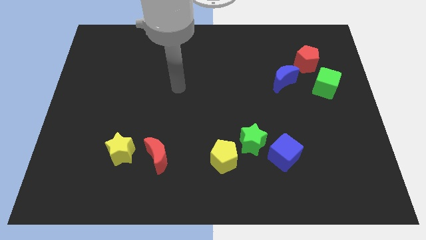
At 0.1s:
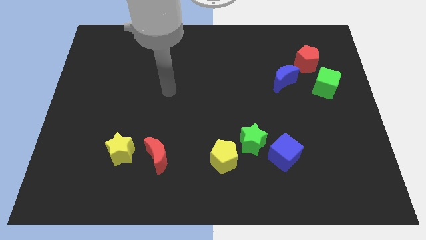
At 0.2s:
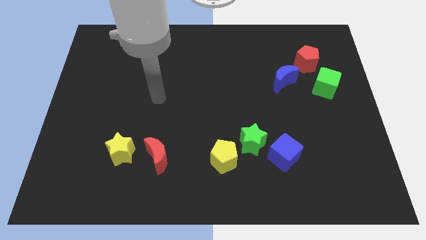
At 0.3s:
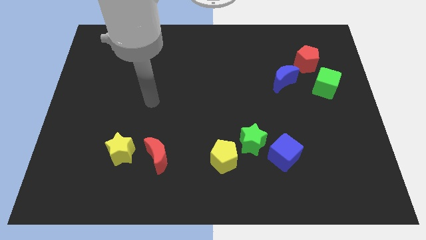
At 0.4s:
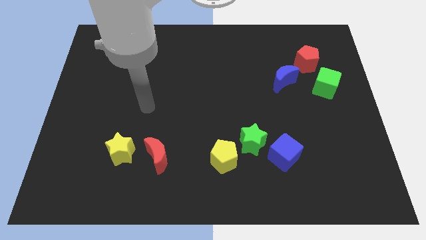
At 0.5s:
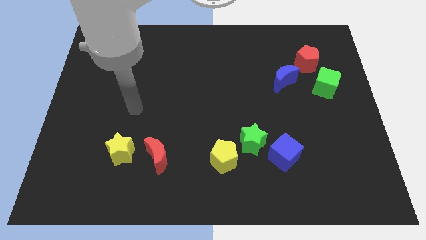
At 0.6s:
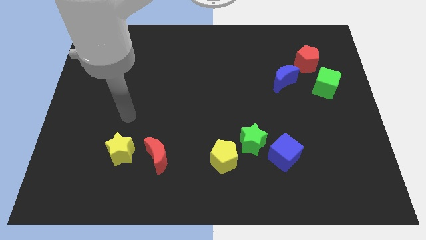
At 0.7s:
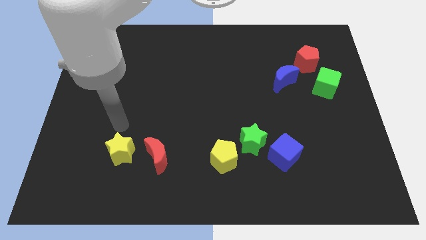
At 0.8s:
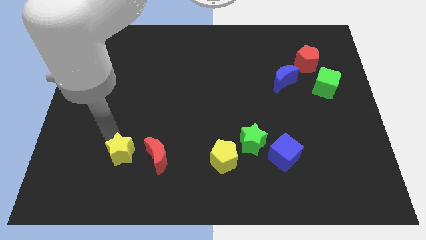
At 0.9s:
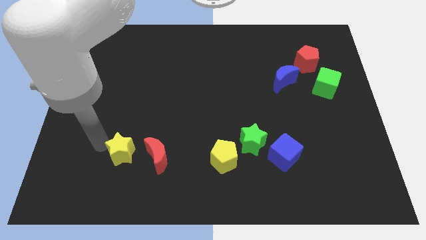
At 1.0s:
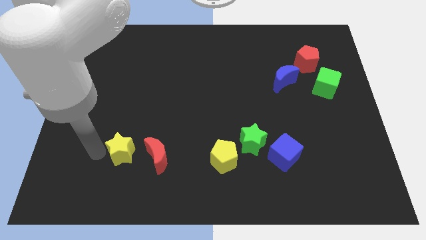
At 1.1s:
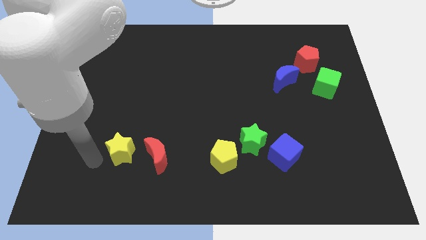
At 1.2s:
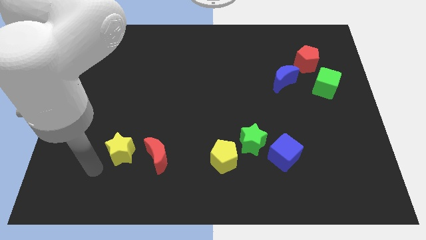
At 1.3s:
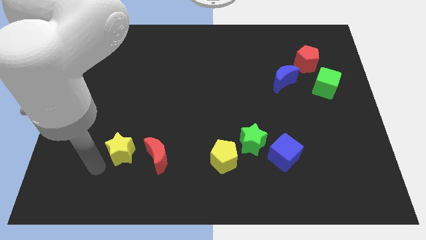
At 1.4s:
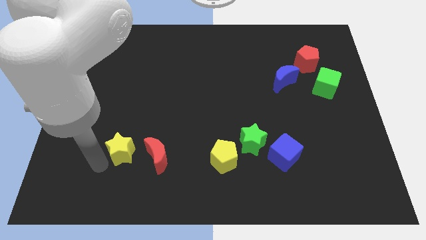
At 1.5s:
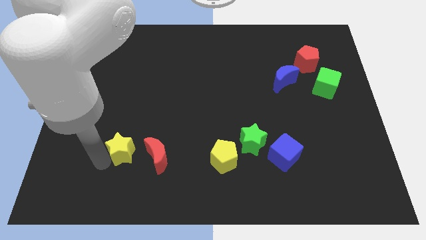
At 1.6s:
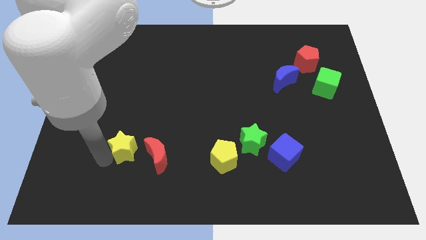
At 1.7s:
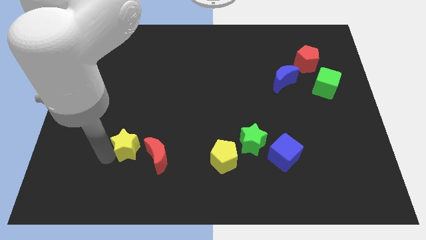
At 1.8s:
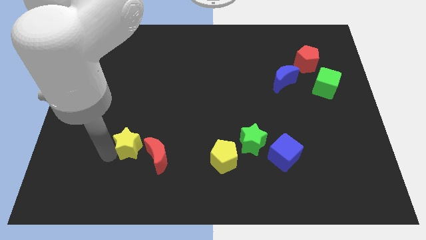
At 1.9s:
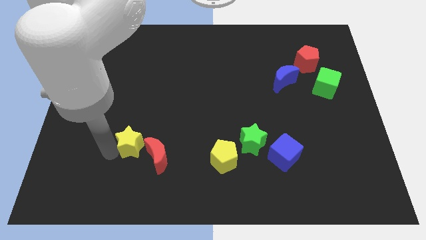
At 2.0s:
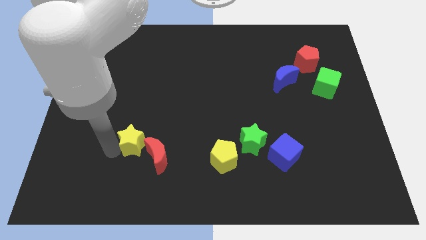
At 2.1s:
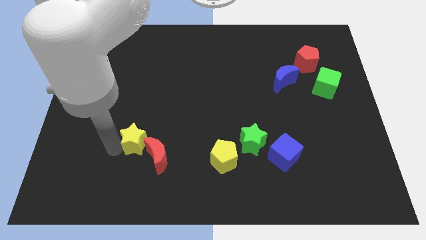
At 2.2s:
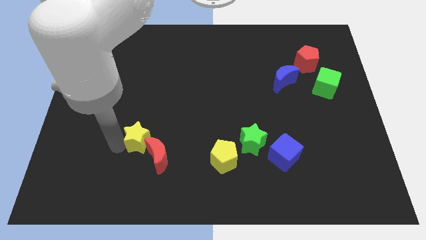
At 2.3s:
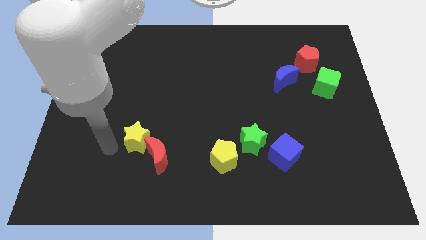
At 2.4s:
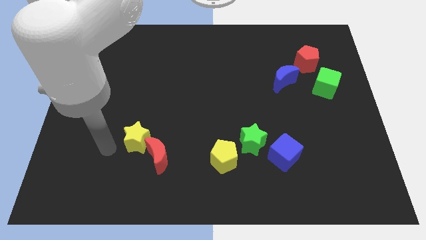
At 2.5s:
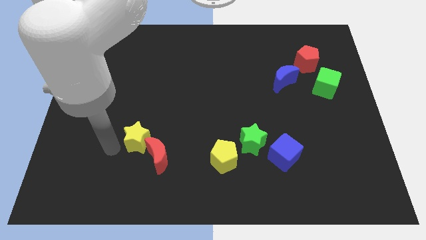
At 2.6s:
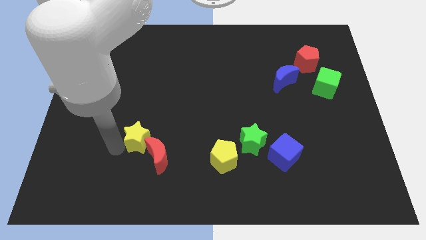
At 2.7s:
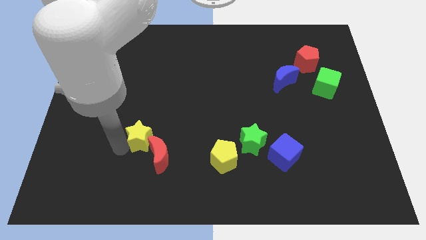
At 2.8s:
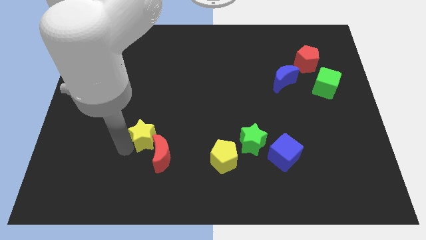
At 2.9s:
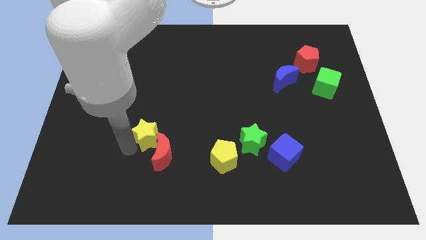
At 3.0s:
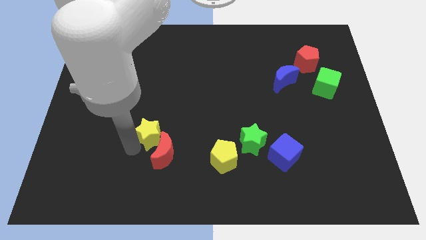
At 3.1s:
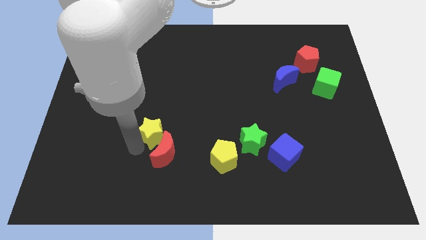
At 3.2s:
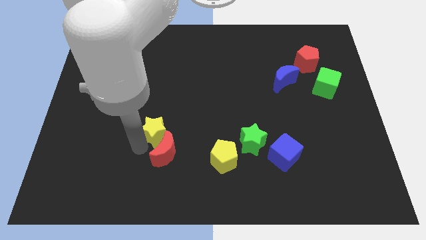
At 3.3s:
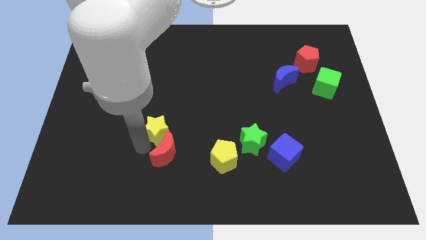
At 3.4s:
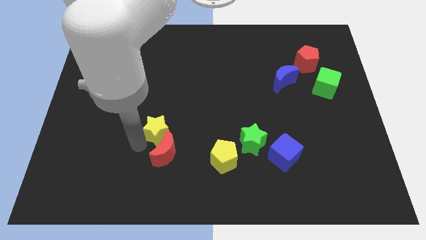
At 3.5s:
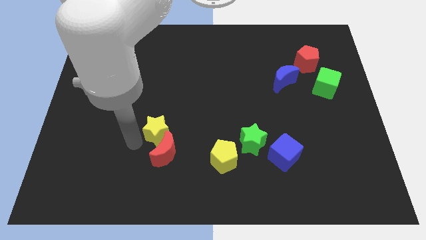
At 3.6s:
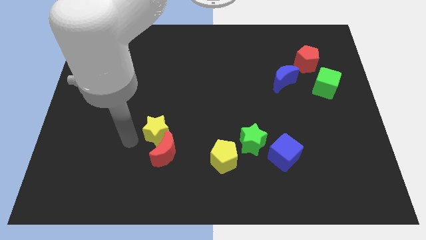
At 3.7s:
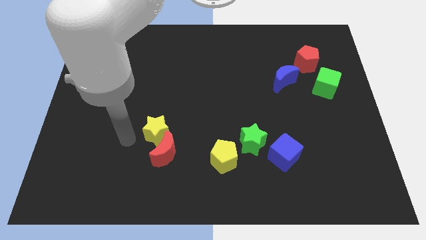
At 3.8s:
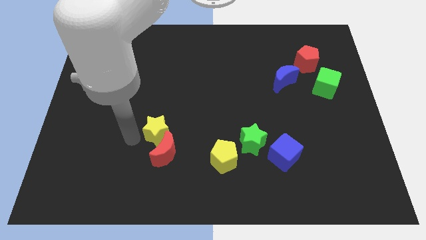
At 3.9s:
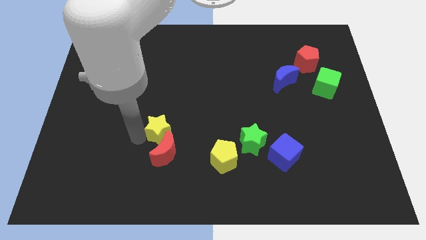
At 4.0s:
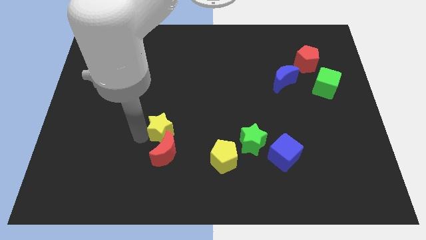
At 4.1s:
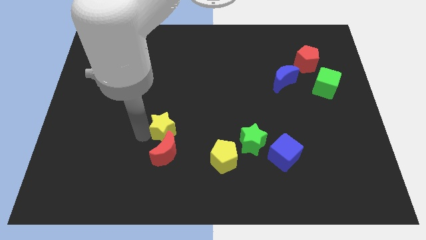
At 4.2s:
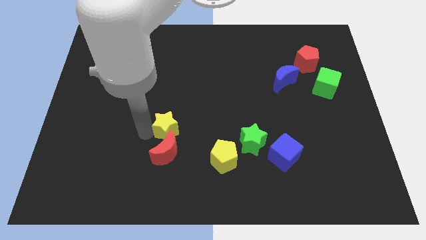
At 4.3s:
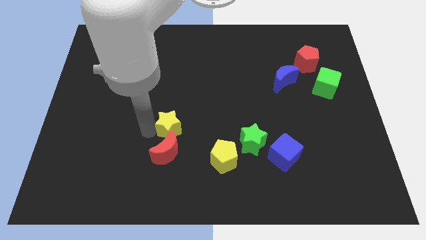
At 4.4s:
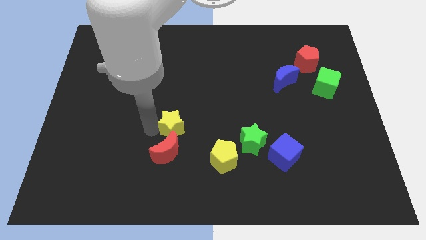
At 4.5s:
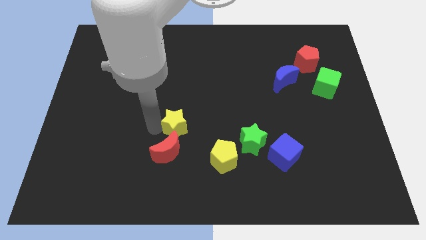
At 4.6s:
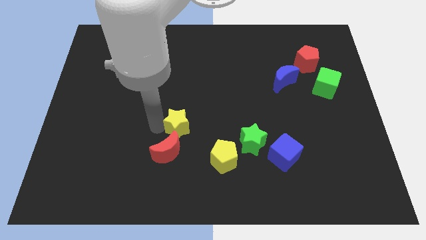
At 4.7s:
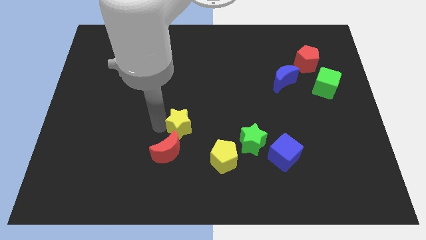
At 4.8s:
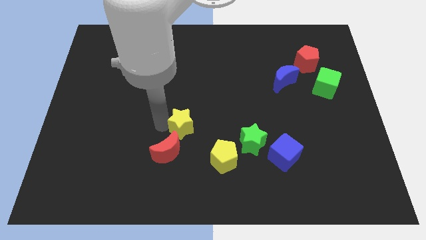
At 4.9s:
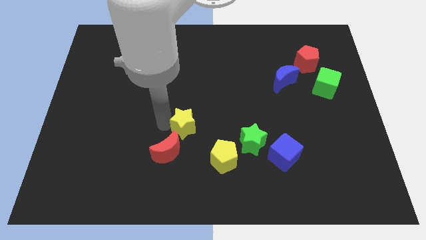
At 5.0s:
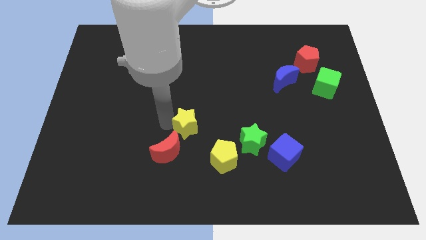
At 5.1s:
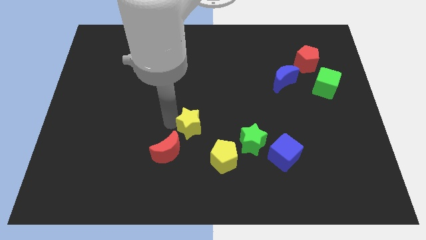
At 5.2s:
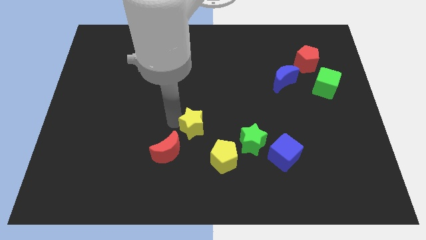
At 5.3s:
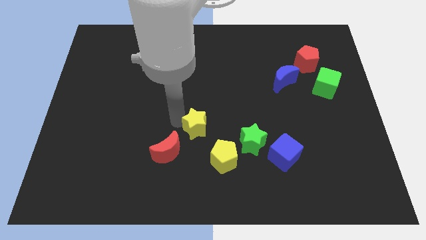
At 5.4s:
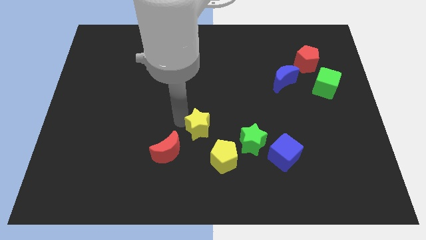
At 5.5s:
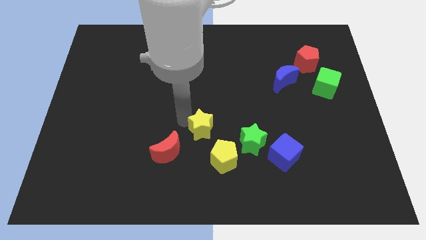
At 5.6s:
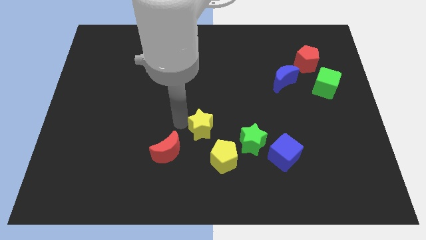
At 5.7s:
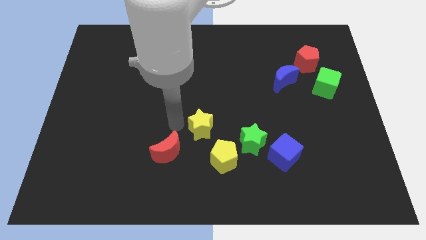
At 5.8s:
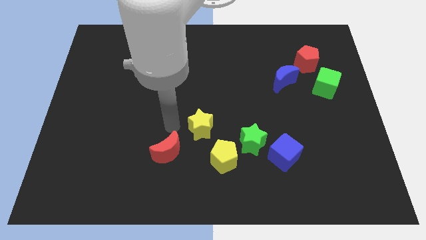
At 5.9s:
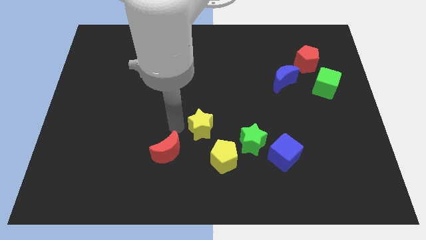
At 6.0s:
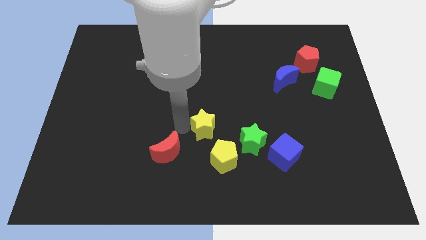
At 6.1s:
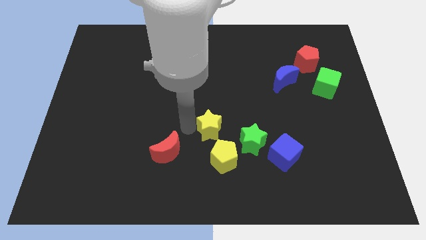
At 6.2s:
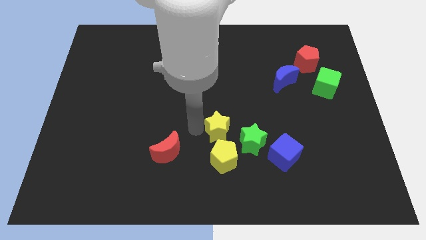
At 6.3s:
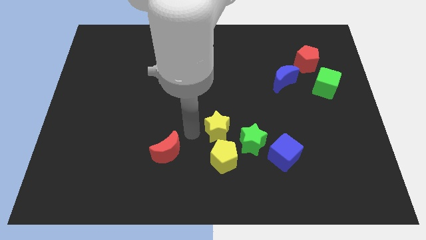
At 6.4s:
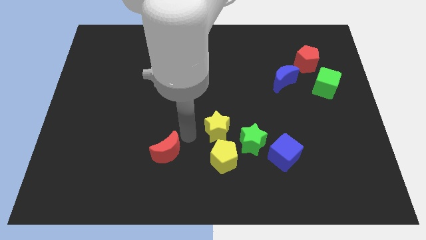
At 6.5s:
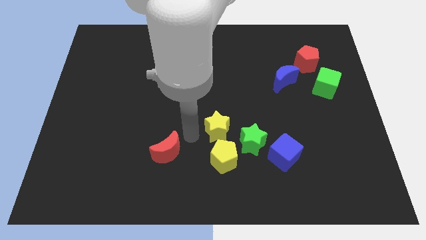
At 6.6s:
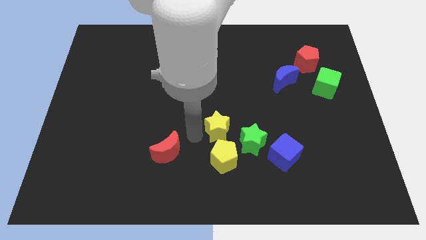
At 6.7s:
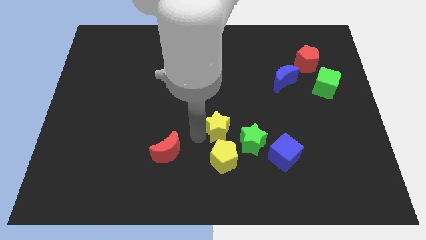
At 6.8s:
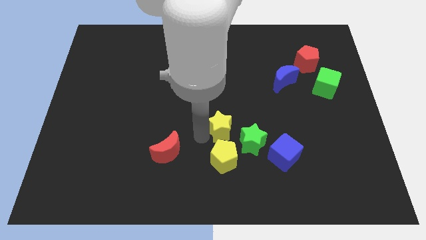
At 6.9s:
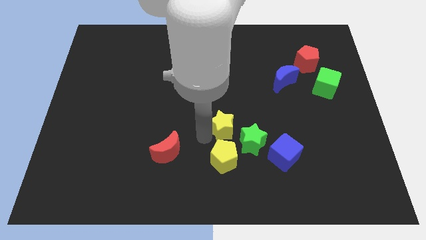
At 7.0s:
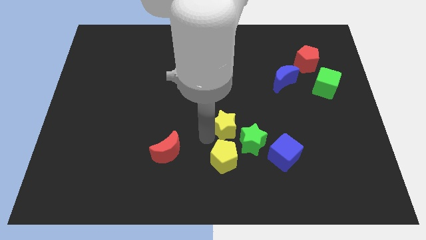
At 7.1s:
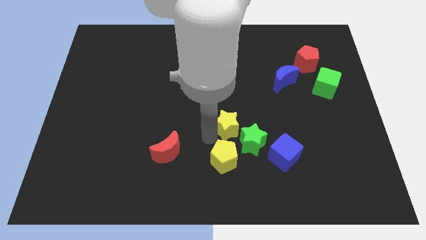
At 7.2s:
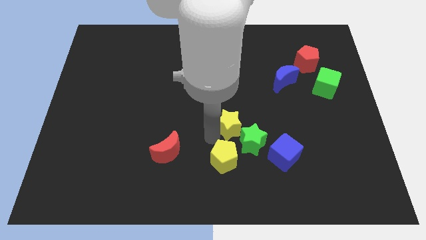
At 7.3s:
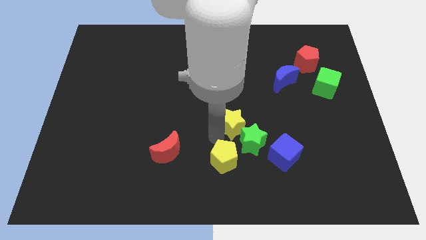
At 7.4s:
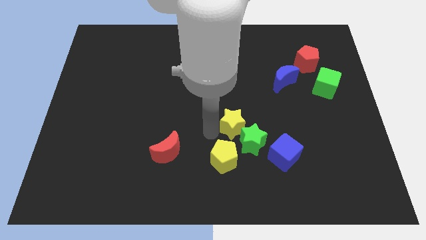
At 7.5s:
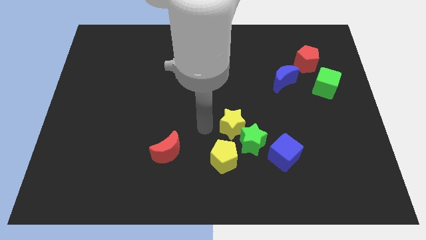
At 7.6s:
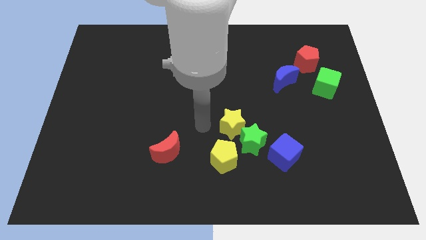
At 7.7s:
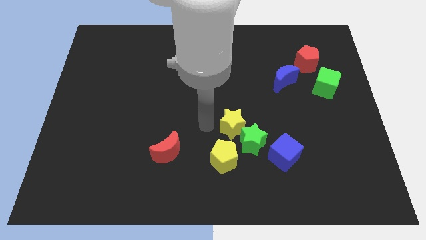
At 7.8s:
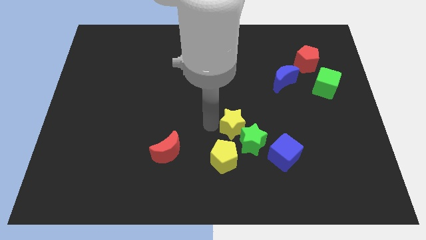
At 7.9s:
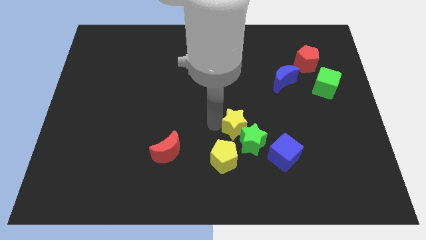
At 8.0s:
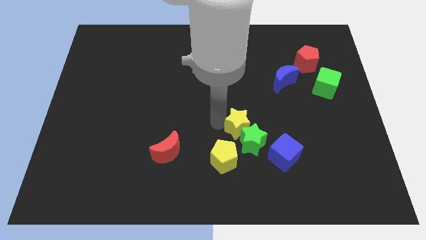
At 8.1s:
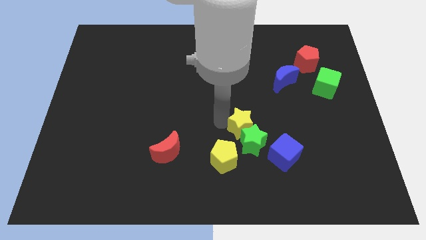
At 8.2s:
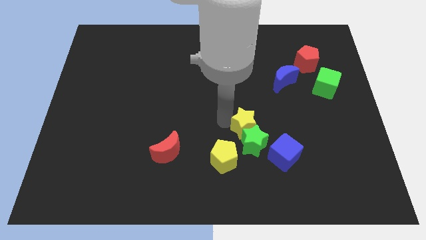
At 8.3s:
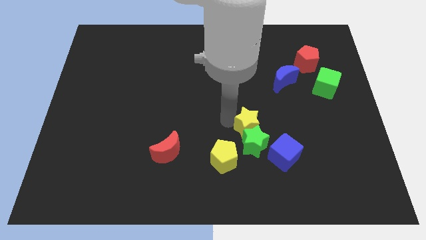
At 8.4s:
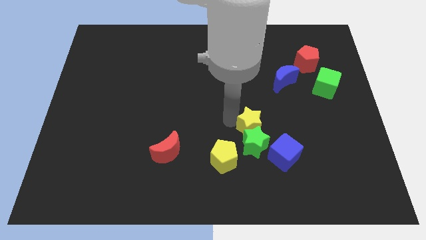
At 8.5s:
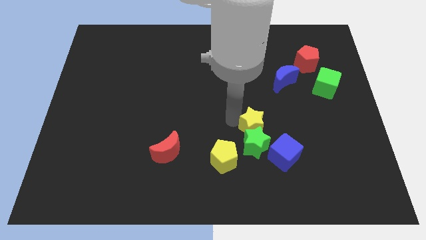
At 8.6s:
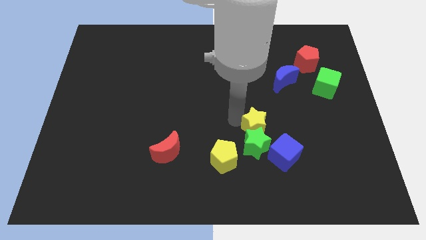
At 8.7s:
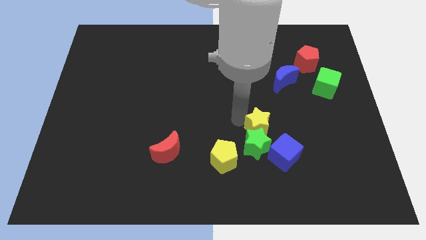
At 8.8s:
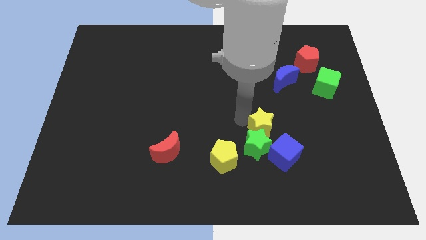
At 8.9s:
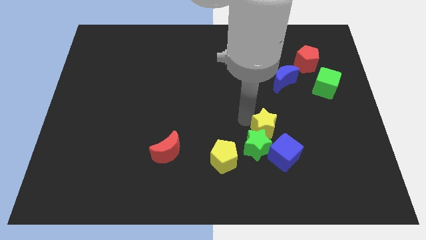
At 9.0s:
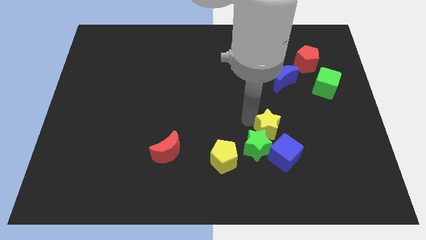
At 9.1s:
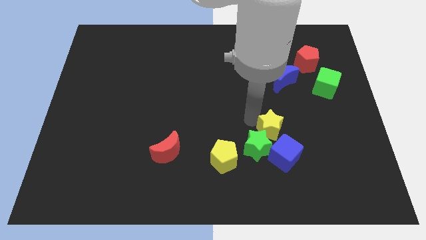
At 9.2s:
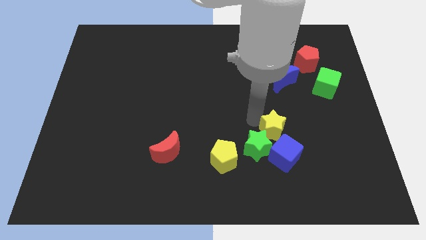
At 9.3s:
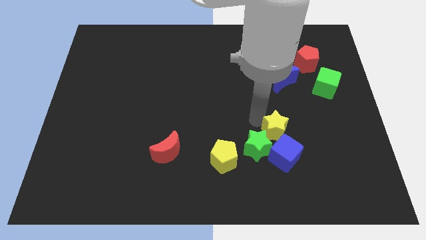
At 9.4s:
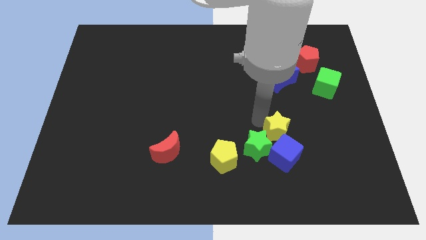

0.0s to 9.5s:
put the yellow star just right of the green star
